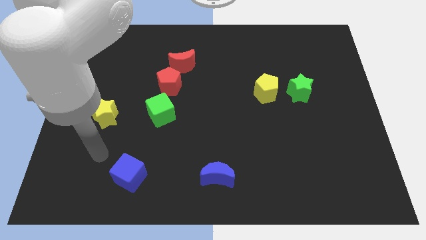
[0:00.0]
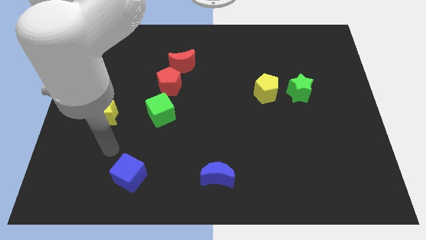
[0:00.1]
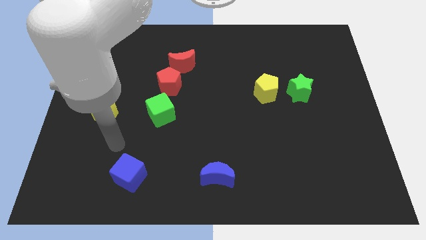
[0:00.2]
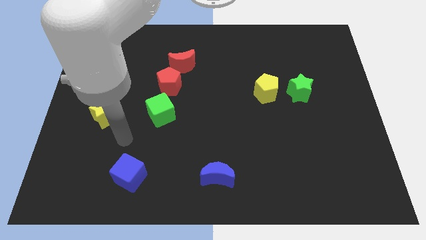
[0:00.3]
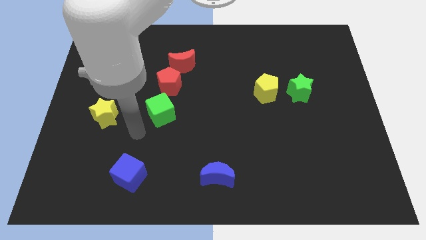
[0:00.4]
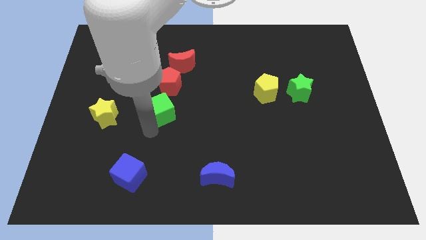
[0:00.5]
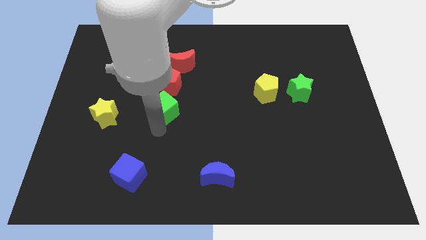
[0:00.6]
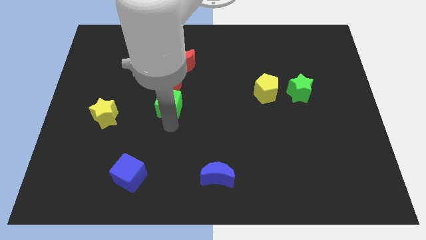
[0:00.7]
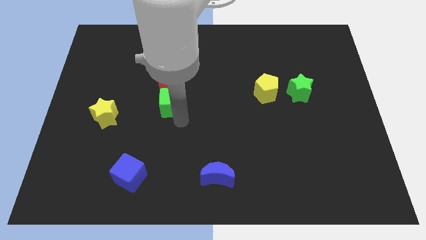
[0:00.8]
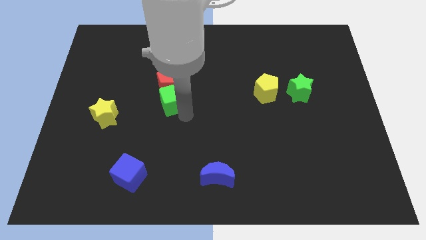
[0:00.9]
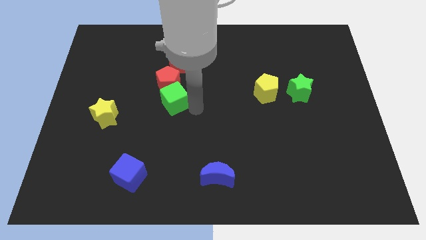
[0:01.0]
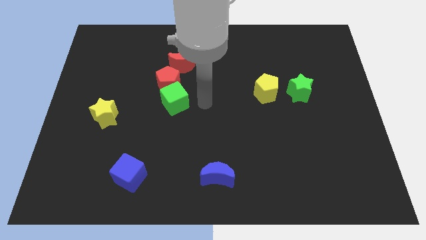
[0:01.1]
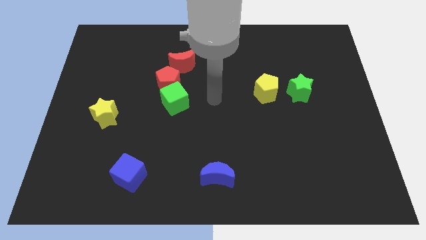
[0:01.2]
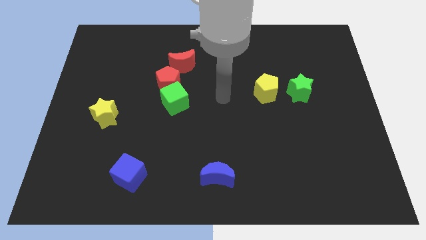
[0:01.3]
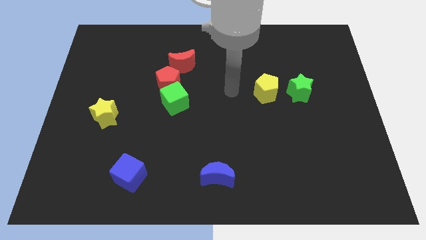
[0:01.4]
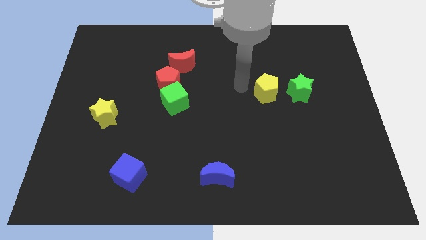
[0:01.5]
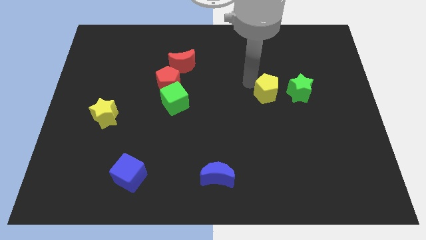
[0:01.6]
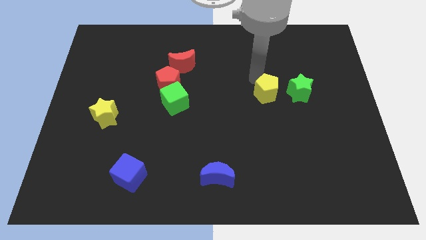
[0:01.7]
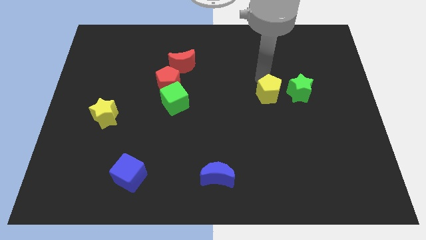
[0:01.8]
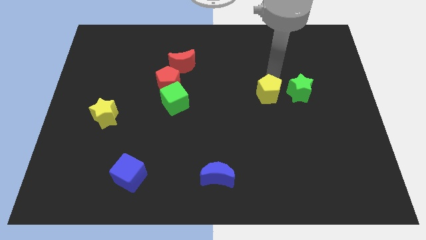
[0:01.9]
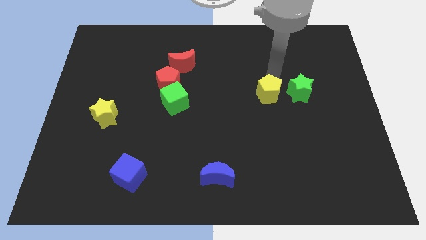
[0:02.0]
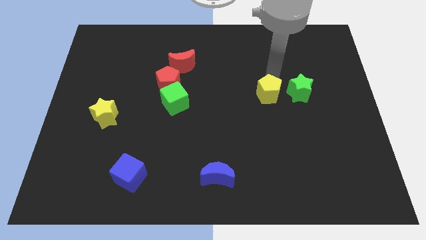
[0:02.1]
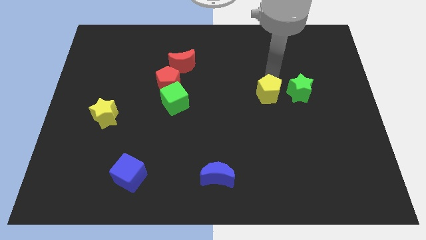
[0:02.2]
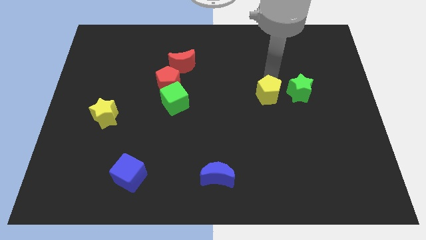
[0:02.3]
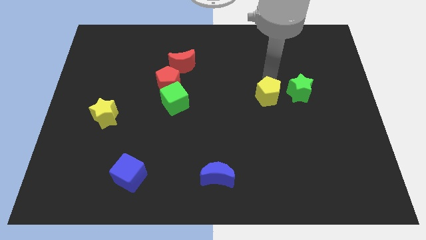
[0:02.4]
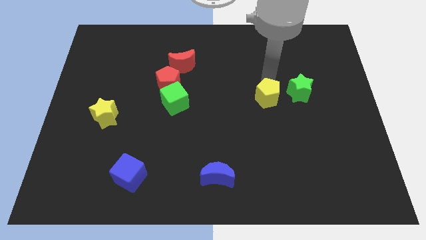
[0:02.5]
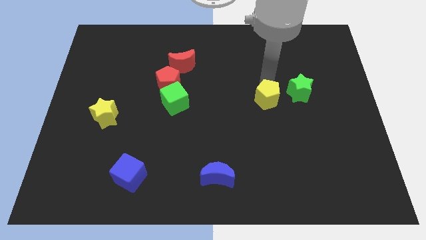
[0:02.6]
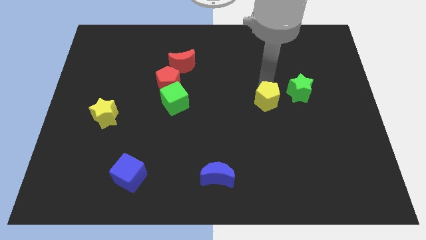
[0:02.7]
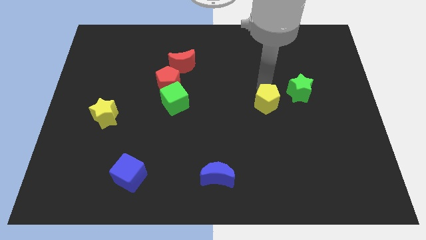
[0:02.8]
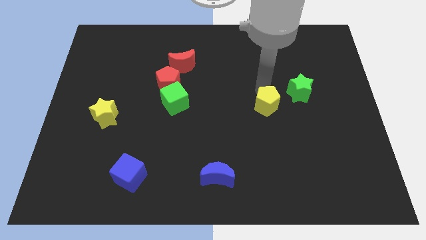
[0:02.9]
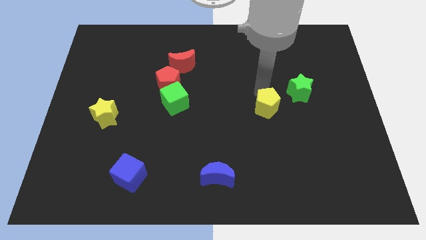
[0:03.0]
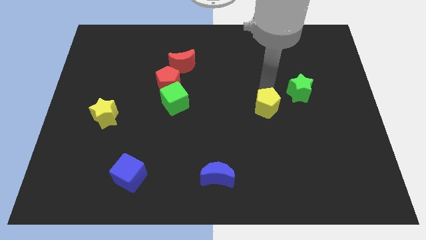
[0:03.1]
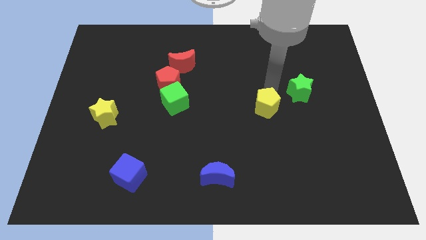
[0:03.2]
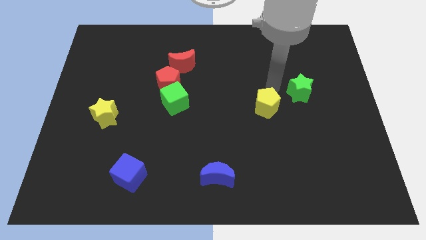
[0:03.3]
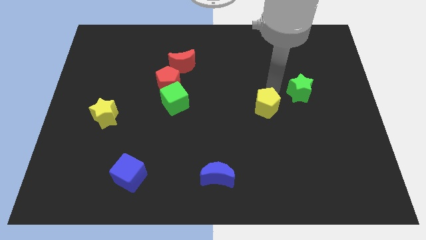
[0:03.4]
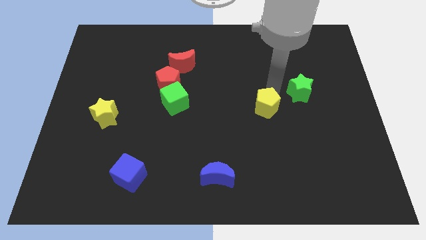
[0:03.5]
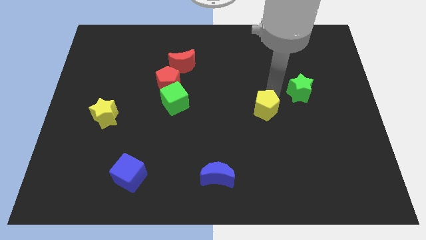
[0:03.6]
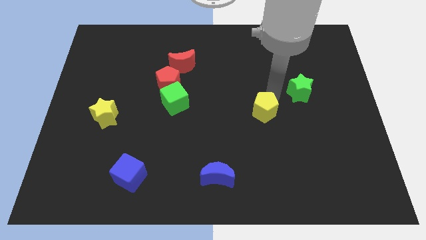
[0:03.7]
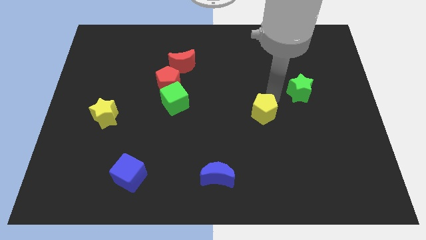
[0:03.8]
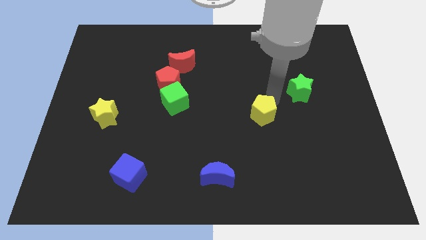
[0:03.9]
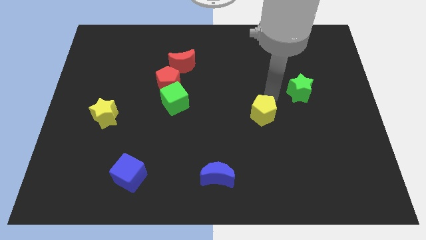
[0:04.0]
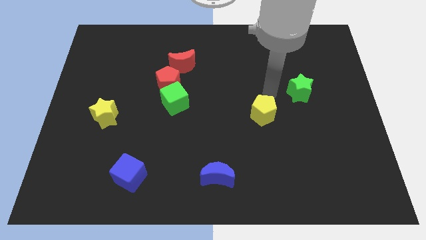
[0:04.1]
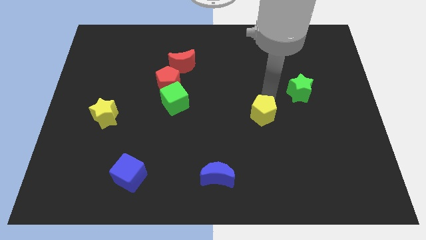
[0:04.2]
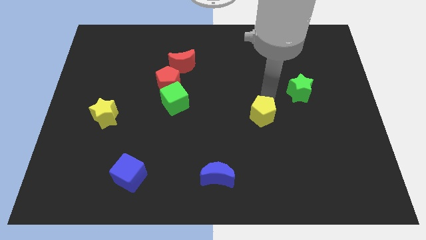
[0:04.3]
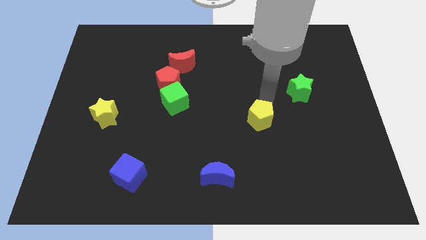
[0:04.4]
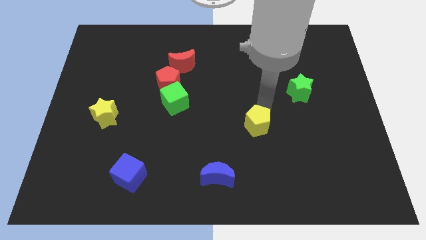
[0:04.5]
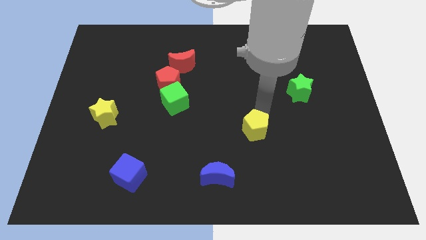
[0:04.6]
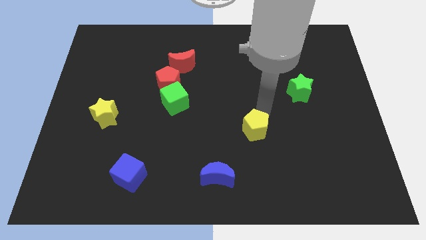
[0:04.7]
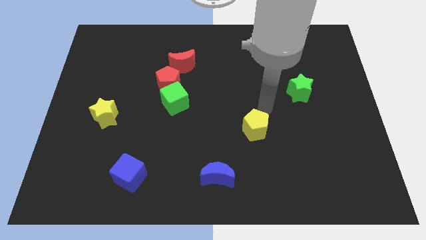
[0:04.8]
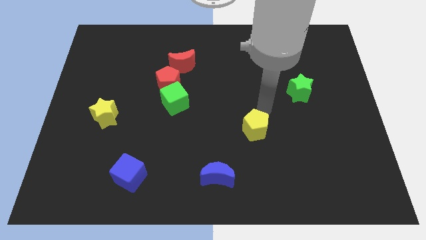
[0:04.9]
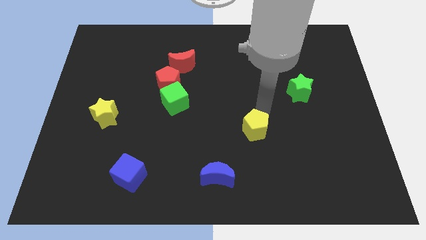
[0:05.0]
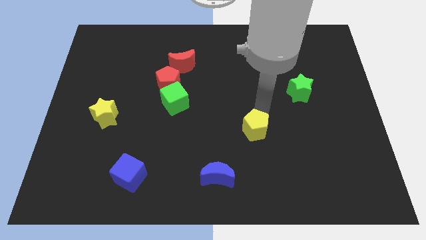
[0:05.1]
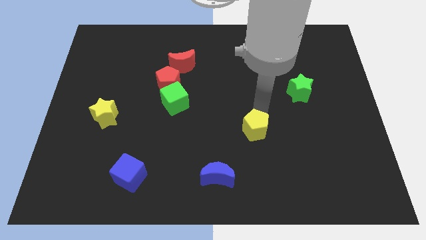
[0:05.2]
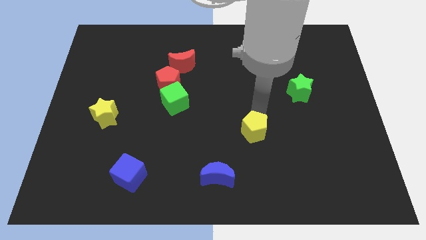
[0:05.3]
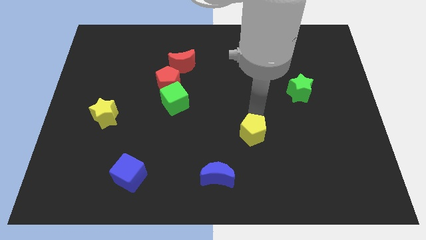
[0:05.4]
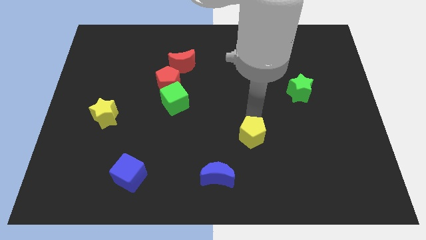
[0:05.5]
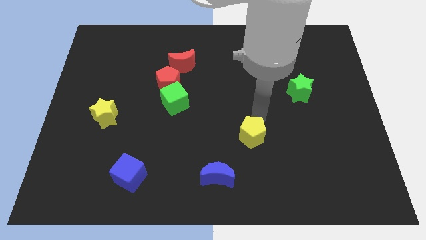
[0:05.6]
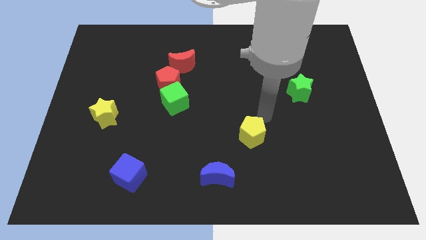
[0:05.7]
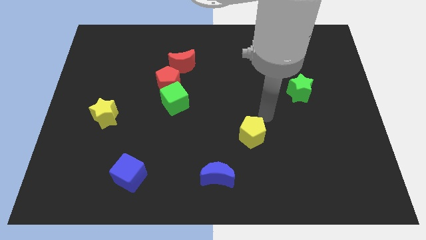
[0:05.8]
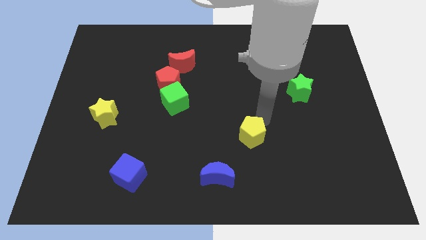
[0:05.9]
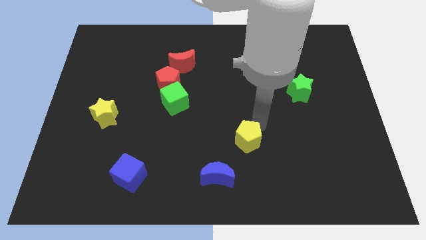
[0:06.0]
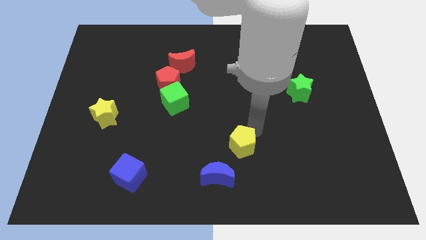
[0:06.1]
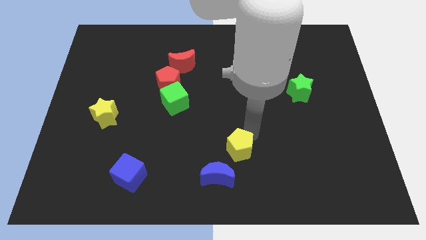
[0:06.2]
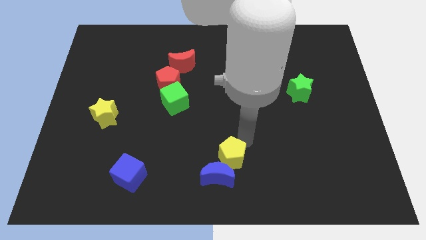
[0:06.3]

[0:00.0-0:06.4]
push the yellow pentagon to the blue moon

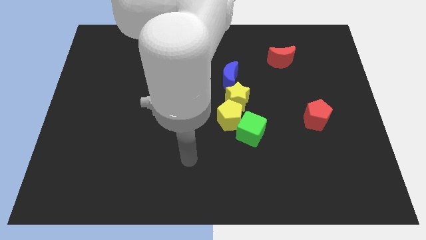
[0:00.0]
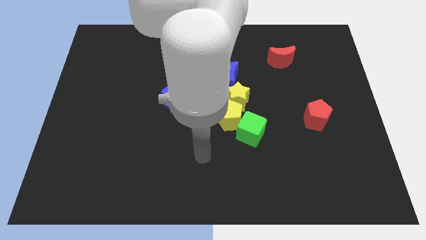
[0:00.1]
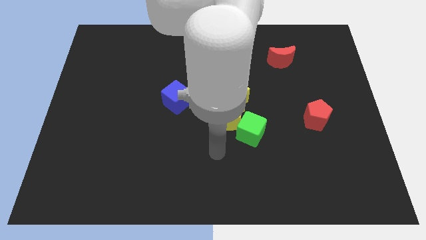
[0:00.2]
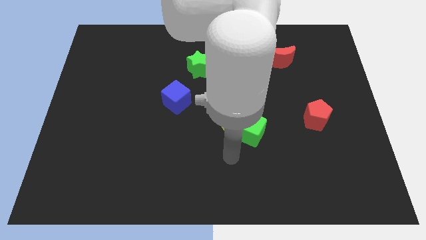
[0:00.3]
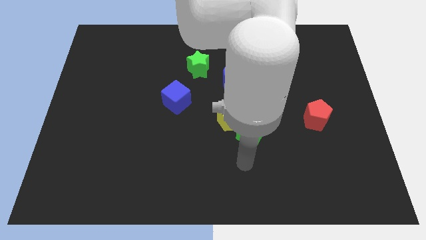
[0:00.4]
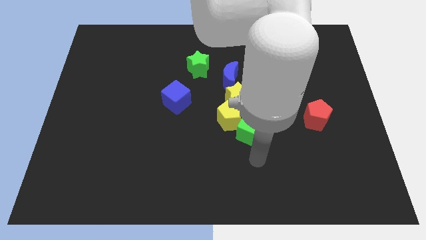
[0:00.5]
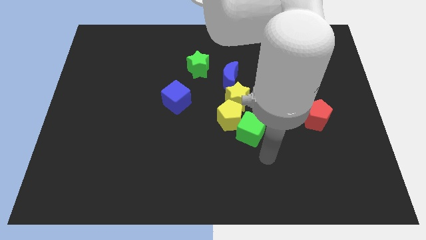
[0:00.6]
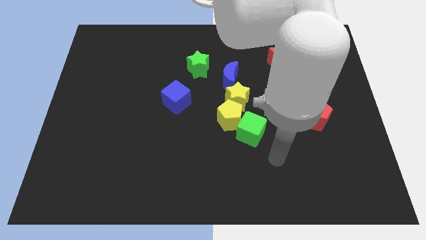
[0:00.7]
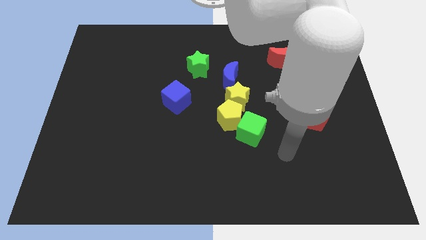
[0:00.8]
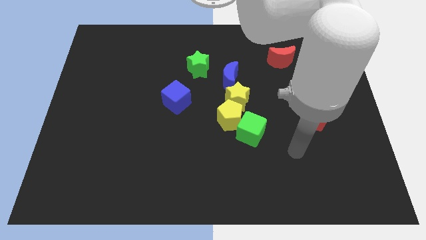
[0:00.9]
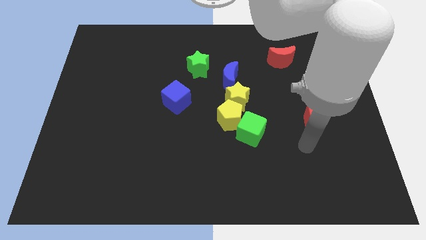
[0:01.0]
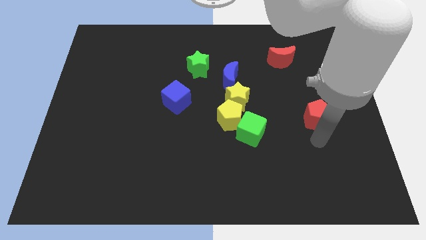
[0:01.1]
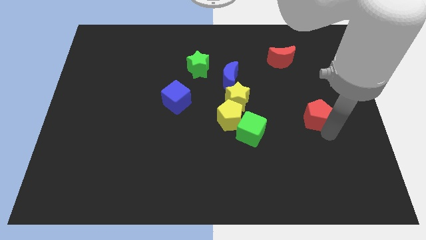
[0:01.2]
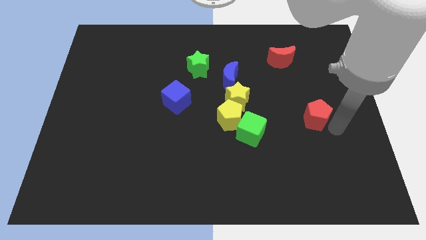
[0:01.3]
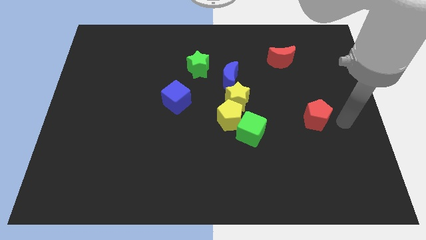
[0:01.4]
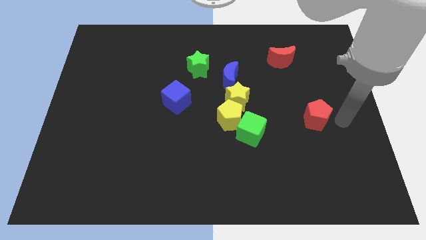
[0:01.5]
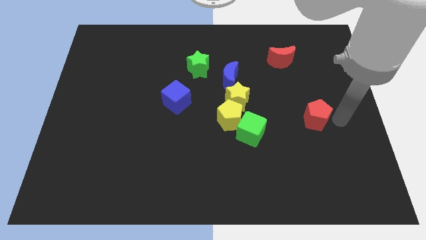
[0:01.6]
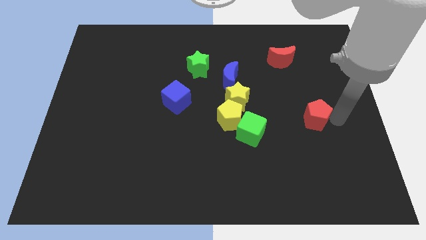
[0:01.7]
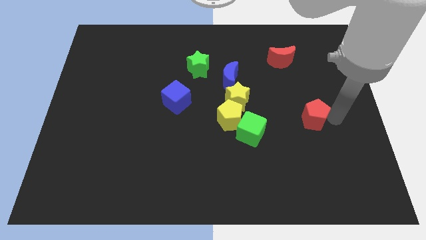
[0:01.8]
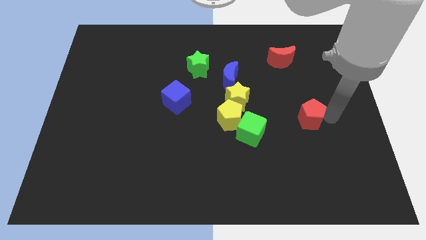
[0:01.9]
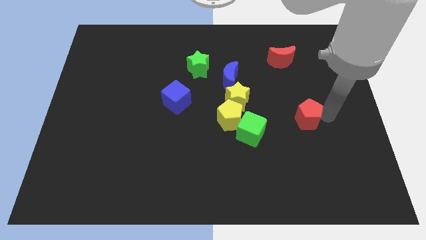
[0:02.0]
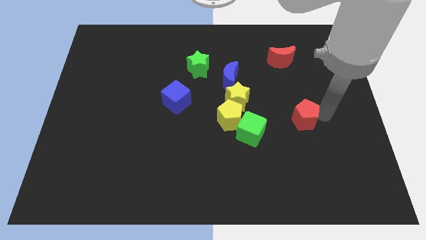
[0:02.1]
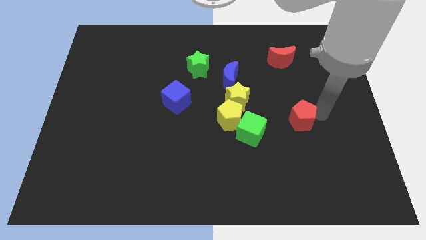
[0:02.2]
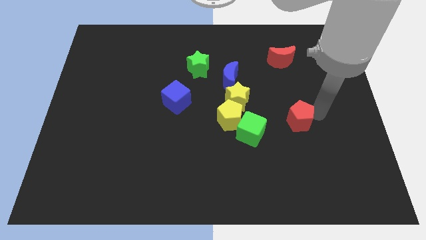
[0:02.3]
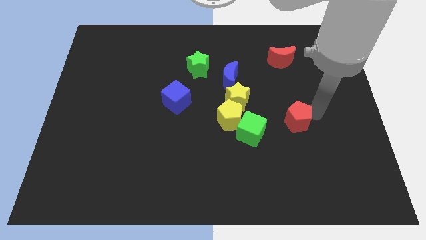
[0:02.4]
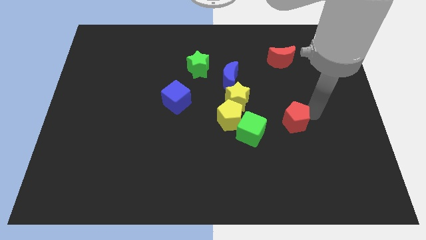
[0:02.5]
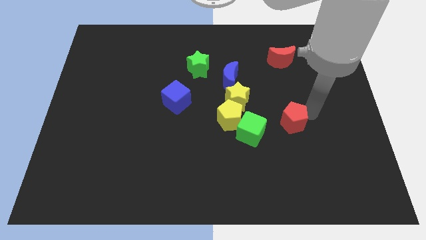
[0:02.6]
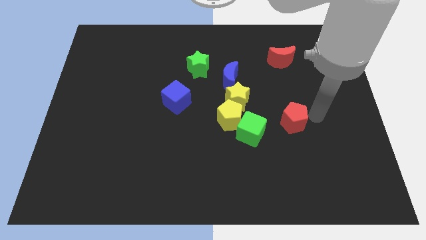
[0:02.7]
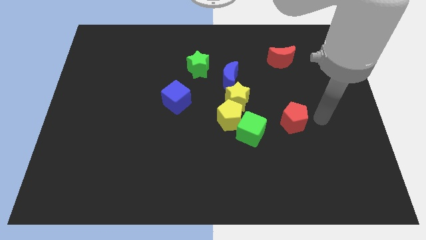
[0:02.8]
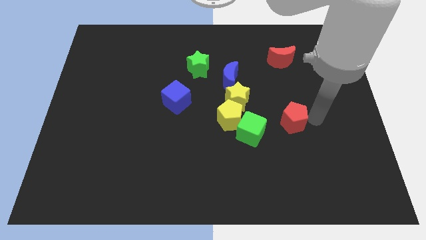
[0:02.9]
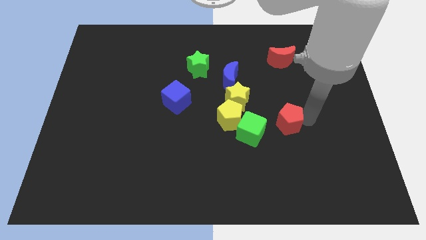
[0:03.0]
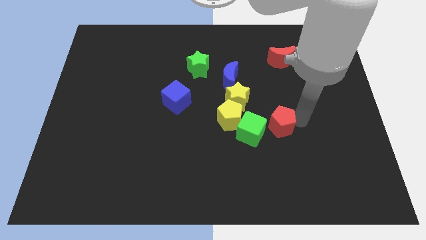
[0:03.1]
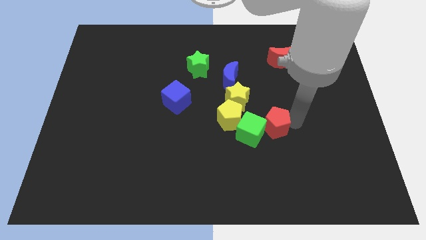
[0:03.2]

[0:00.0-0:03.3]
move the red pentagon close to the green cube
